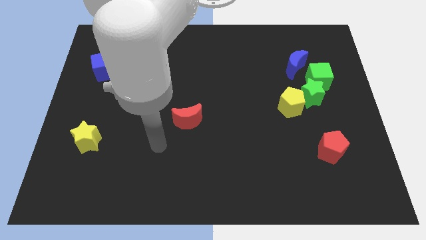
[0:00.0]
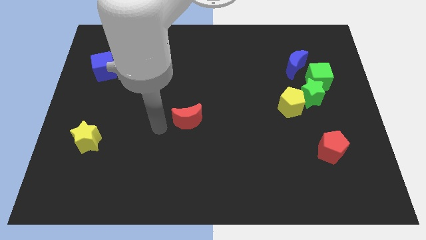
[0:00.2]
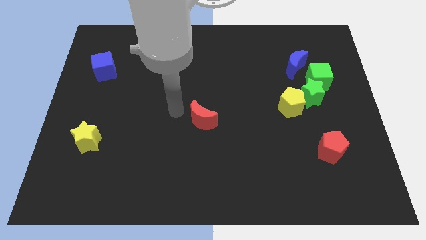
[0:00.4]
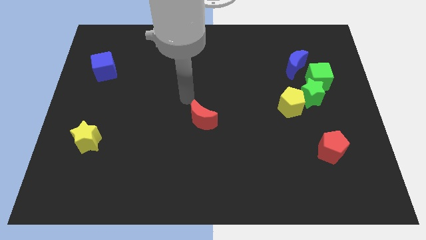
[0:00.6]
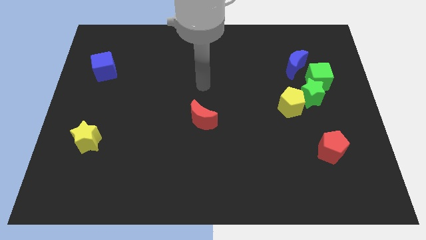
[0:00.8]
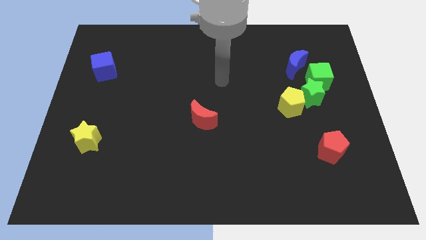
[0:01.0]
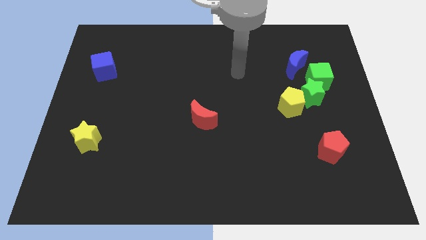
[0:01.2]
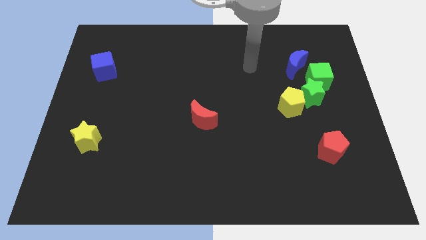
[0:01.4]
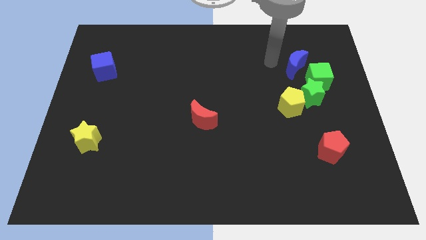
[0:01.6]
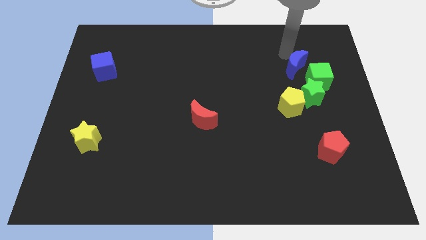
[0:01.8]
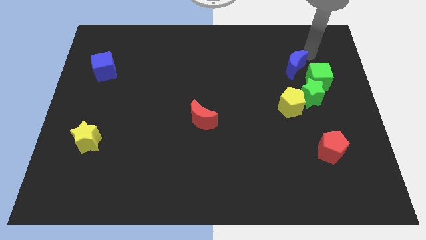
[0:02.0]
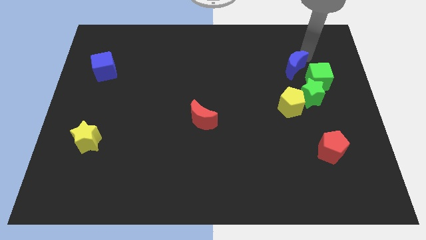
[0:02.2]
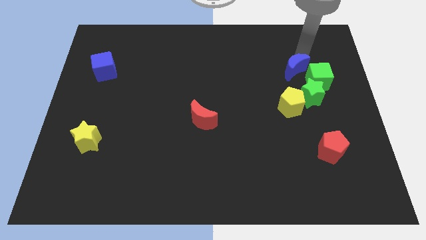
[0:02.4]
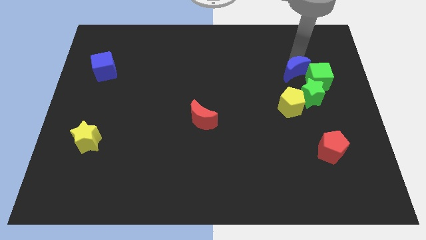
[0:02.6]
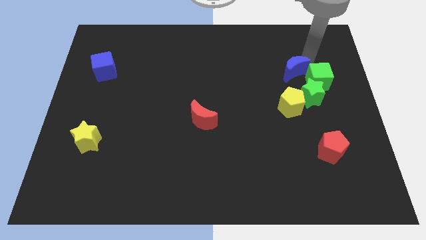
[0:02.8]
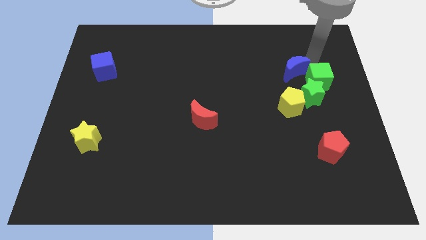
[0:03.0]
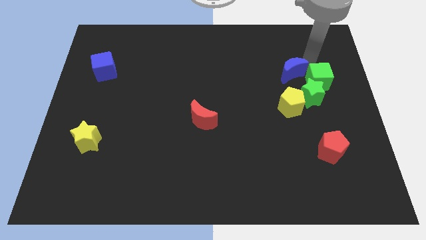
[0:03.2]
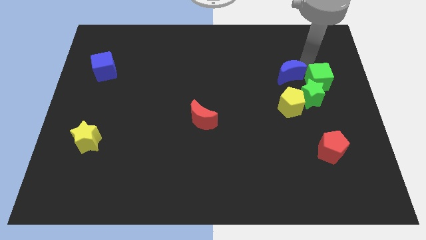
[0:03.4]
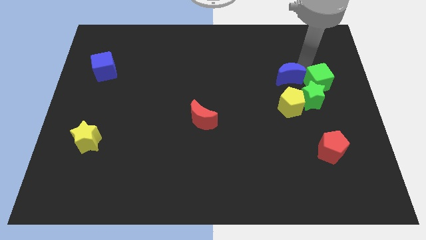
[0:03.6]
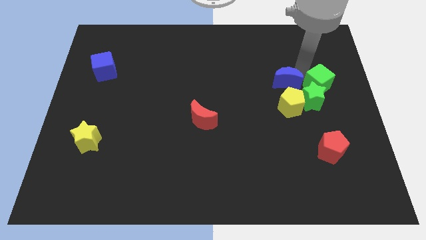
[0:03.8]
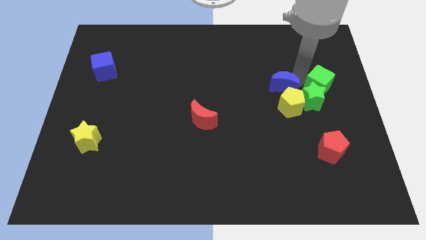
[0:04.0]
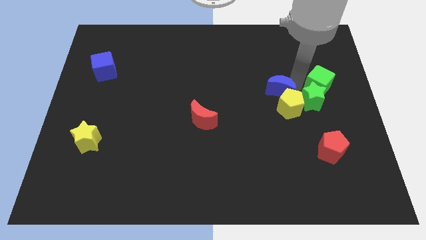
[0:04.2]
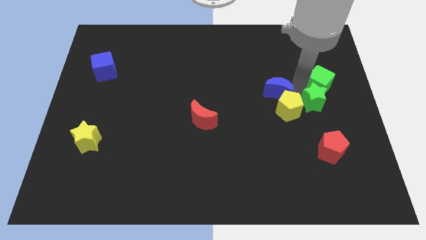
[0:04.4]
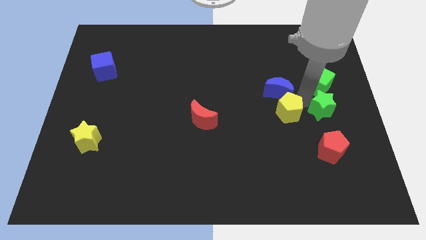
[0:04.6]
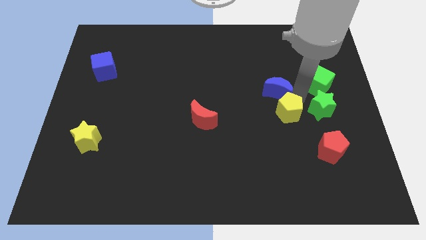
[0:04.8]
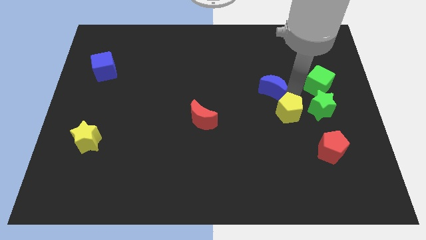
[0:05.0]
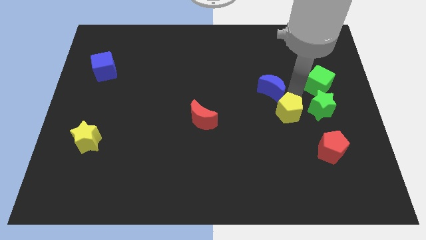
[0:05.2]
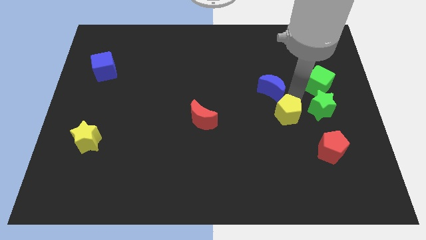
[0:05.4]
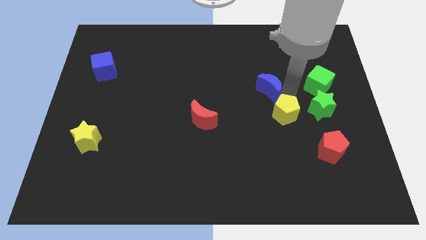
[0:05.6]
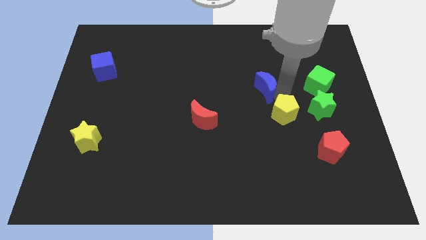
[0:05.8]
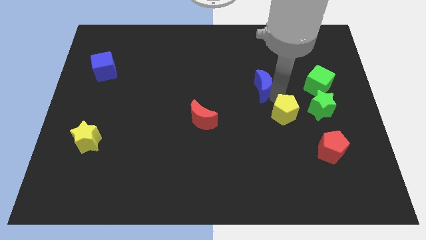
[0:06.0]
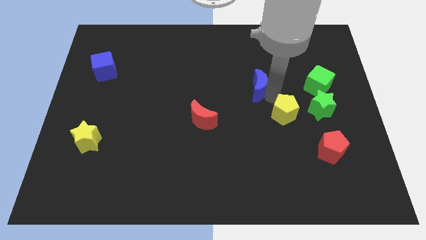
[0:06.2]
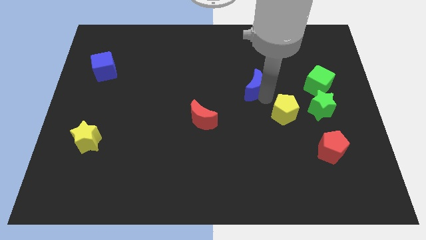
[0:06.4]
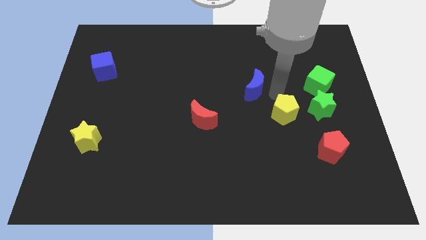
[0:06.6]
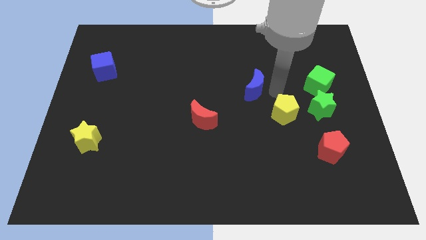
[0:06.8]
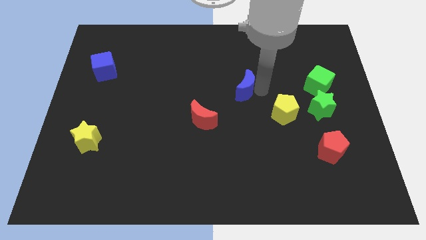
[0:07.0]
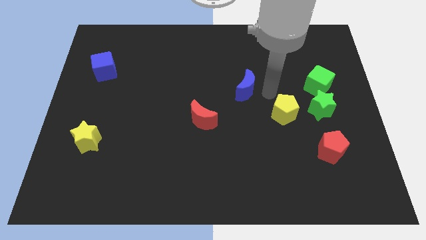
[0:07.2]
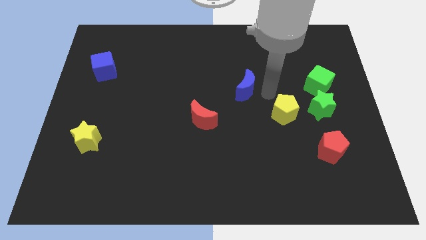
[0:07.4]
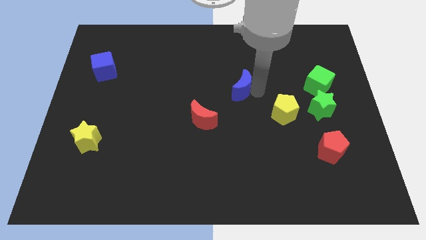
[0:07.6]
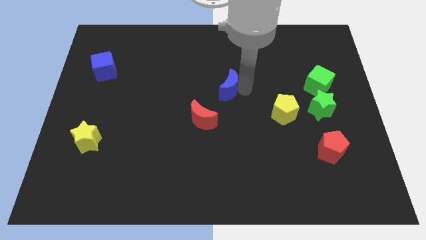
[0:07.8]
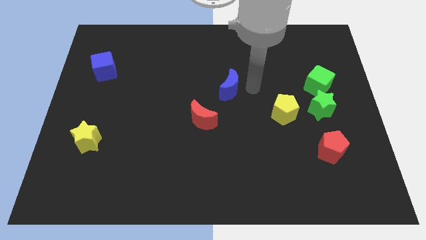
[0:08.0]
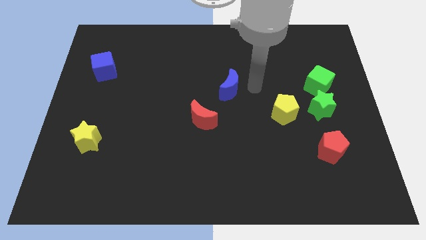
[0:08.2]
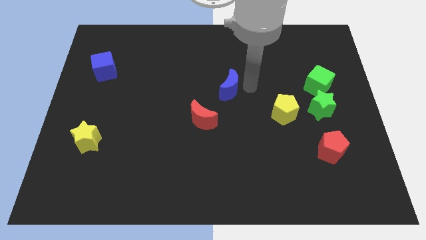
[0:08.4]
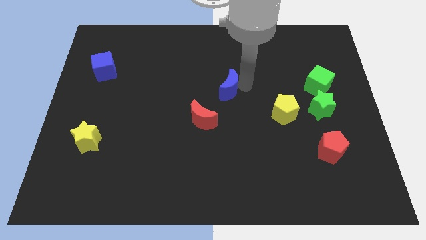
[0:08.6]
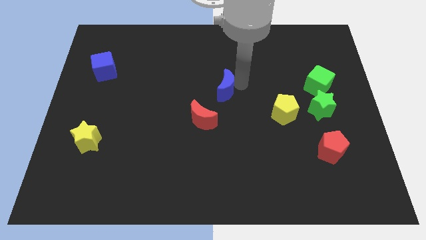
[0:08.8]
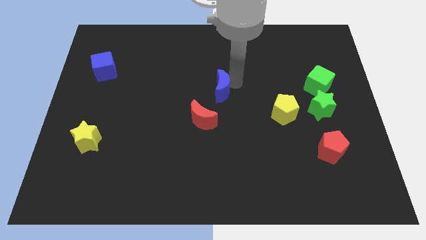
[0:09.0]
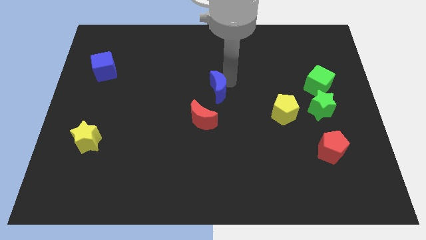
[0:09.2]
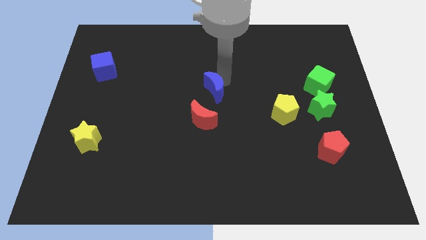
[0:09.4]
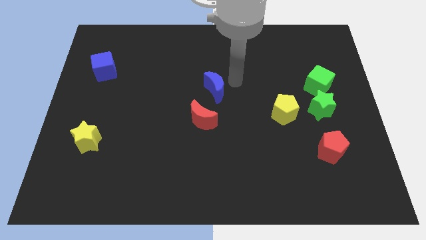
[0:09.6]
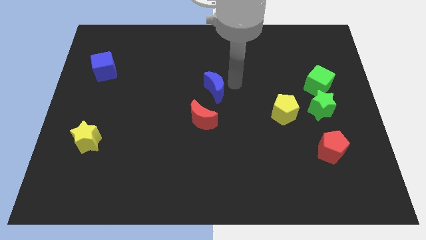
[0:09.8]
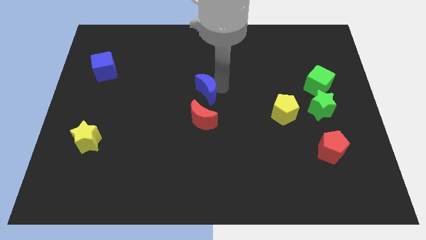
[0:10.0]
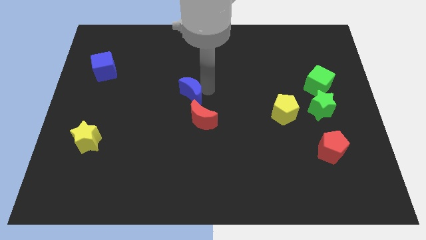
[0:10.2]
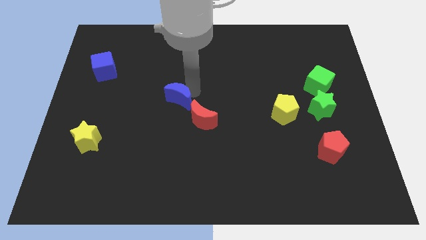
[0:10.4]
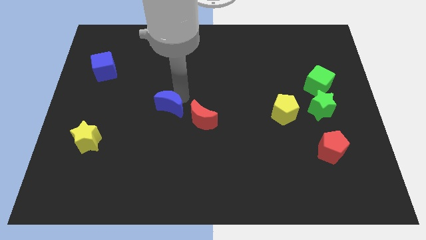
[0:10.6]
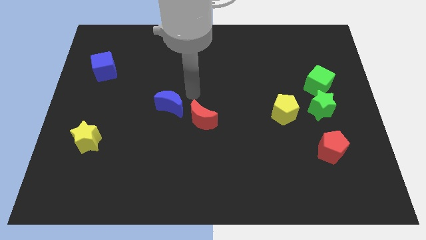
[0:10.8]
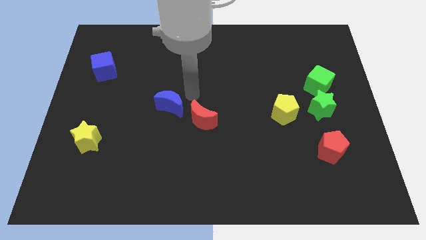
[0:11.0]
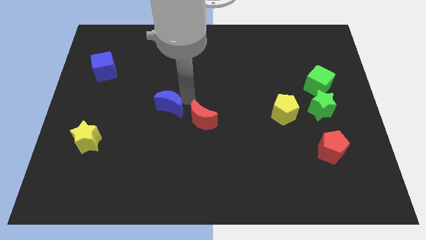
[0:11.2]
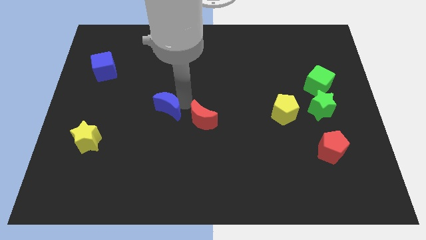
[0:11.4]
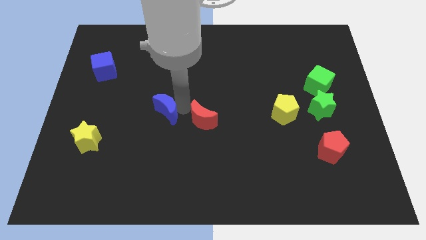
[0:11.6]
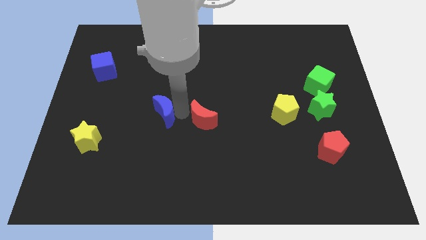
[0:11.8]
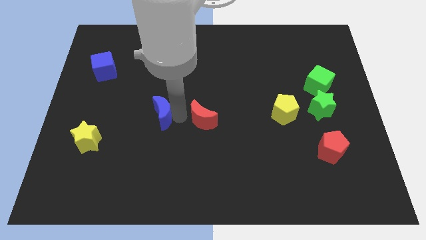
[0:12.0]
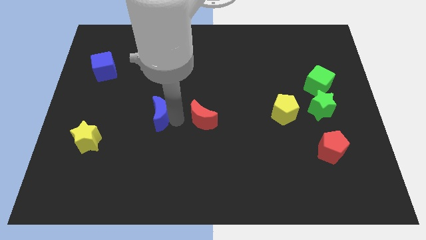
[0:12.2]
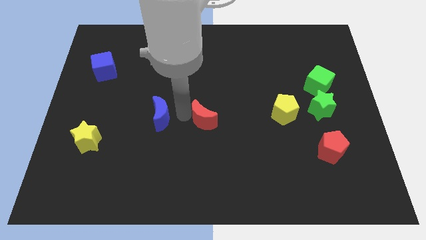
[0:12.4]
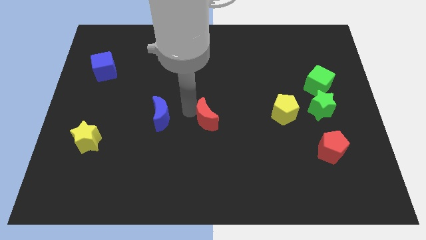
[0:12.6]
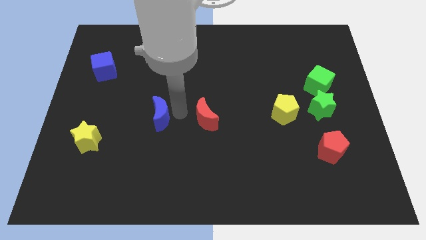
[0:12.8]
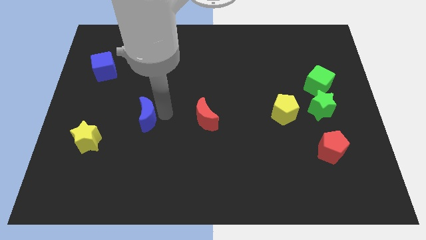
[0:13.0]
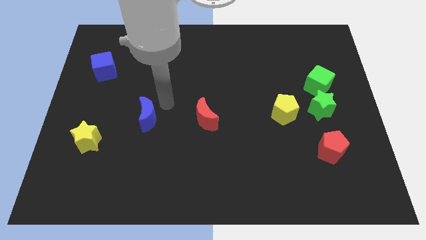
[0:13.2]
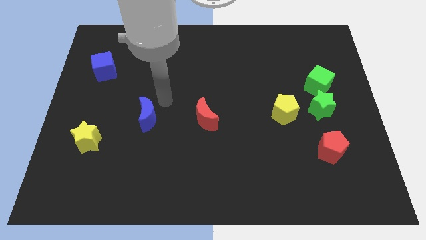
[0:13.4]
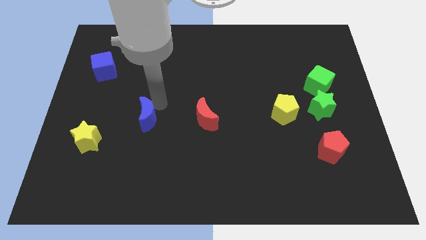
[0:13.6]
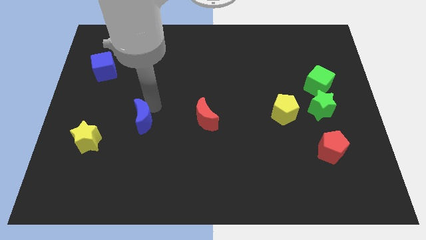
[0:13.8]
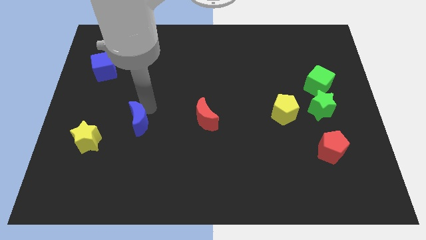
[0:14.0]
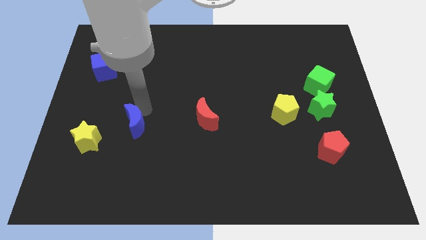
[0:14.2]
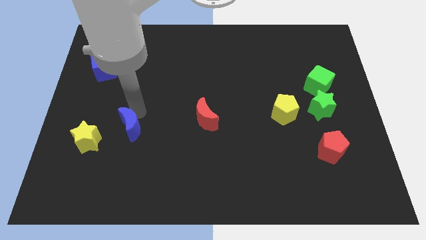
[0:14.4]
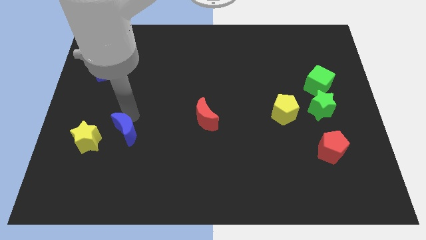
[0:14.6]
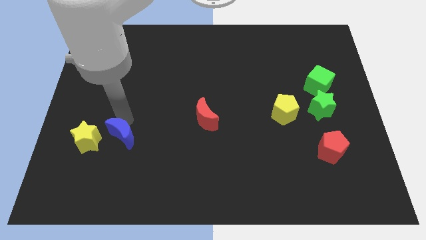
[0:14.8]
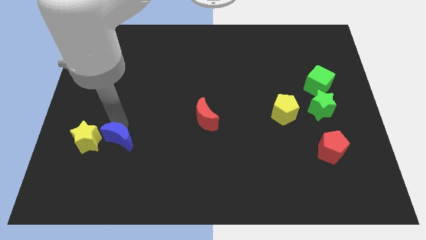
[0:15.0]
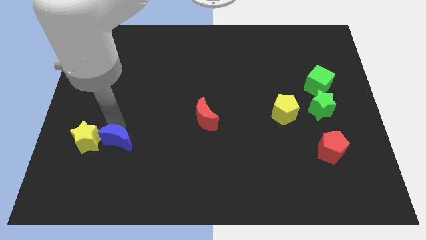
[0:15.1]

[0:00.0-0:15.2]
slide the blue moon to the bottom right side of the yellow star
